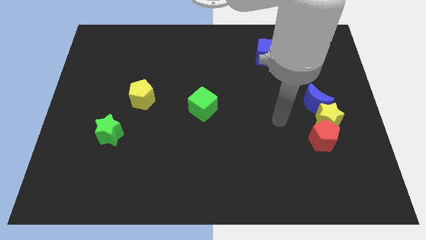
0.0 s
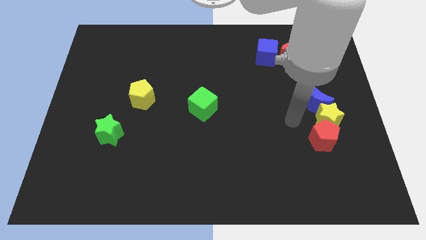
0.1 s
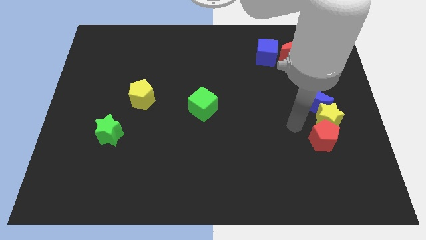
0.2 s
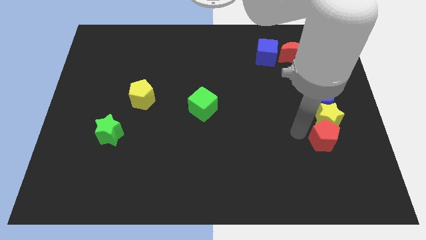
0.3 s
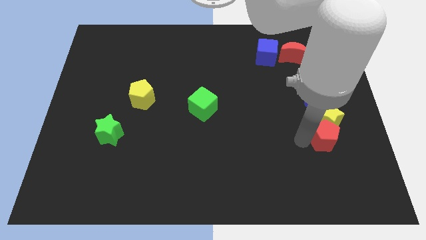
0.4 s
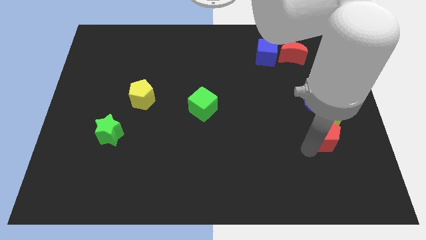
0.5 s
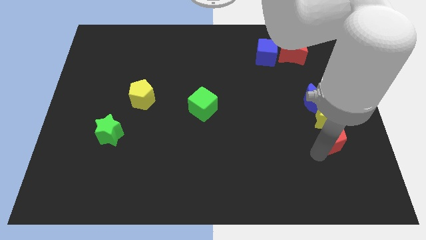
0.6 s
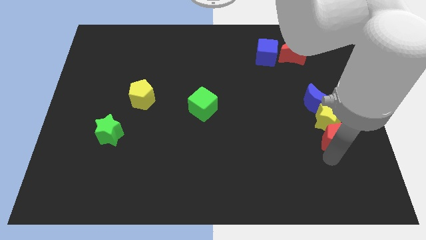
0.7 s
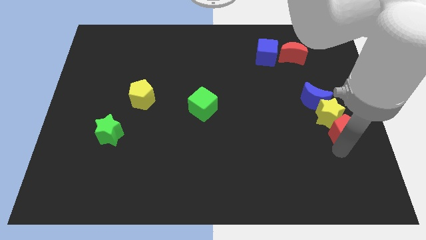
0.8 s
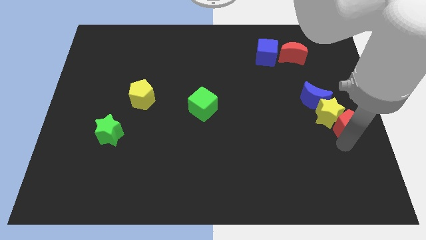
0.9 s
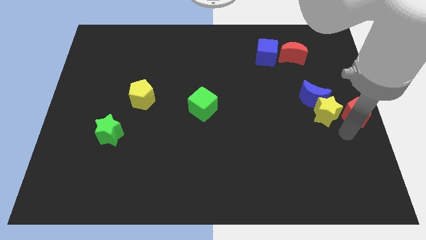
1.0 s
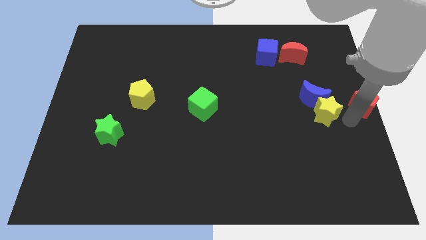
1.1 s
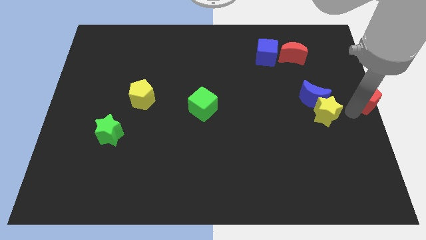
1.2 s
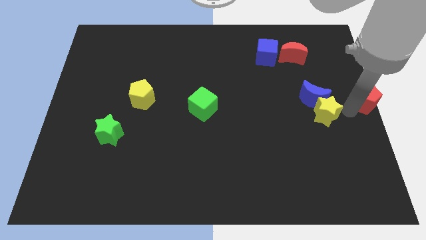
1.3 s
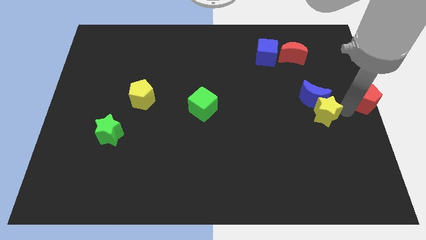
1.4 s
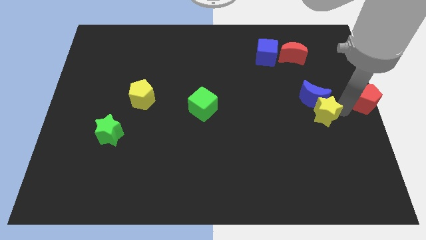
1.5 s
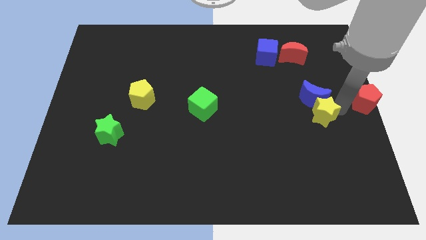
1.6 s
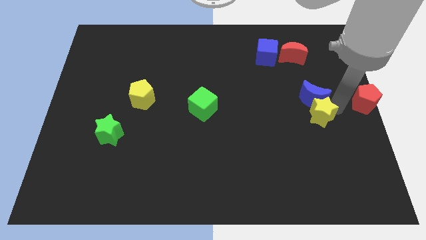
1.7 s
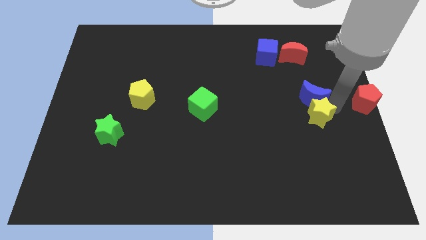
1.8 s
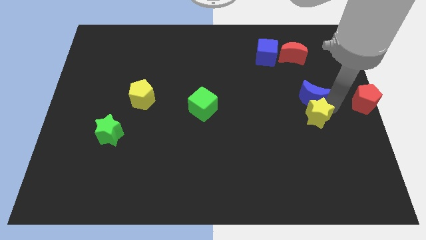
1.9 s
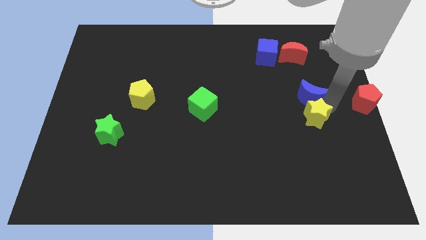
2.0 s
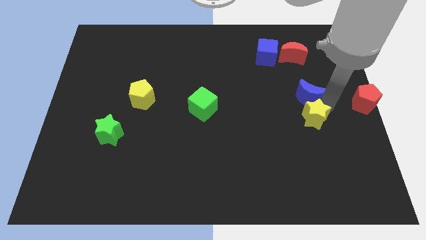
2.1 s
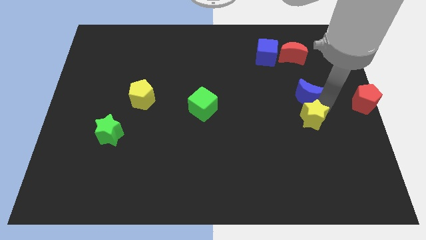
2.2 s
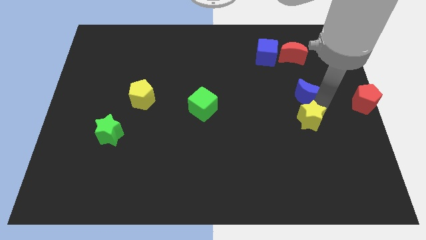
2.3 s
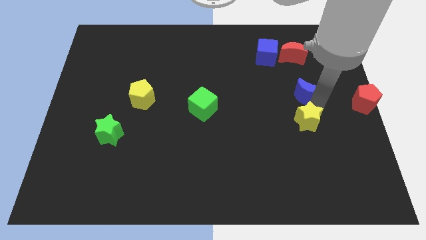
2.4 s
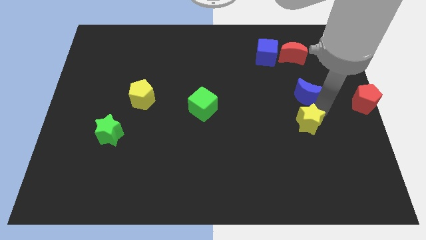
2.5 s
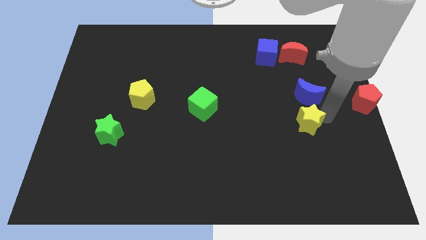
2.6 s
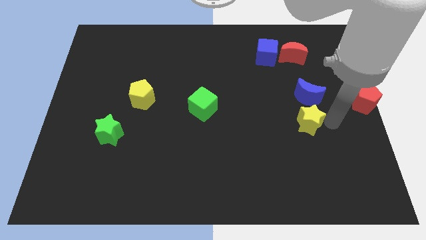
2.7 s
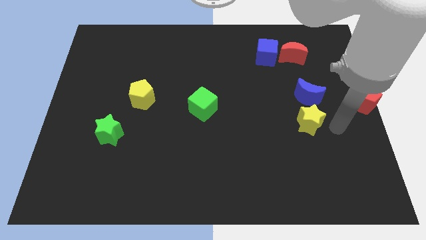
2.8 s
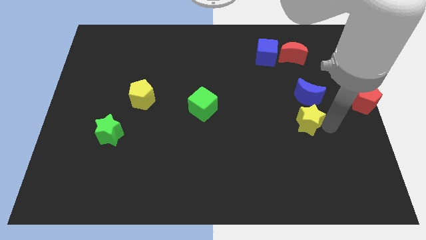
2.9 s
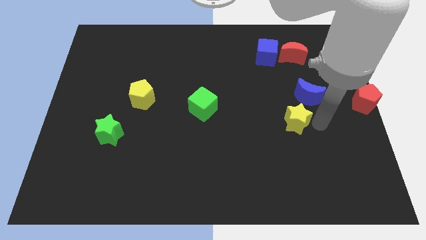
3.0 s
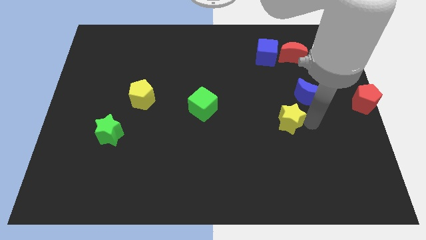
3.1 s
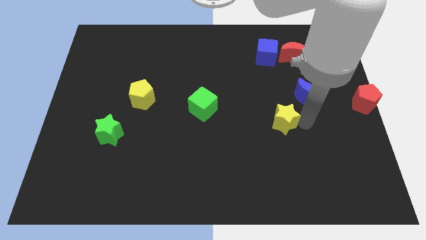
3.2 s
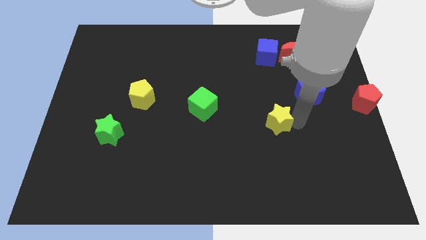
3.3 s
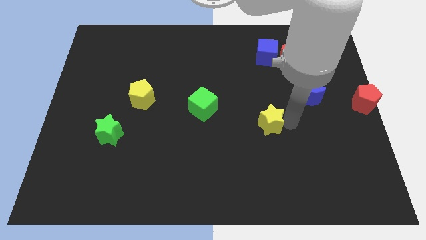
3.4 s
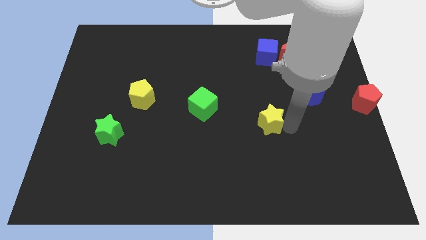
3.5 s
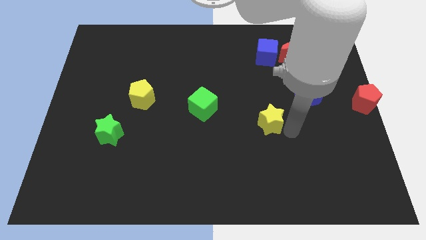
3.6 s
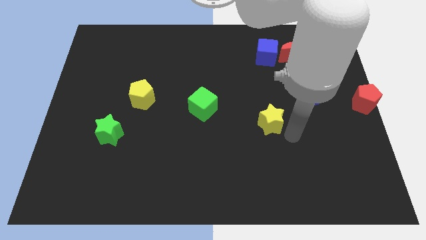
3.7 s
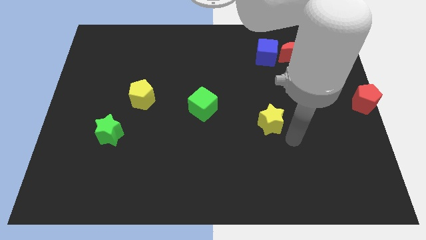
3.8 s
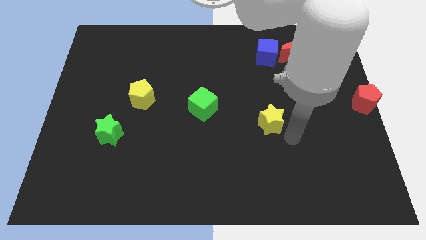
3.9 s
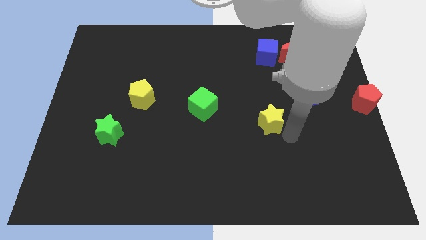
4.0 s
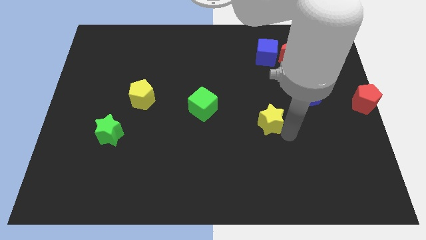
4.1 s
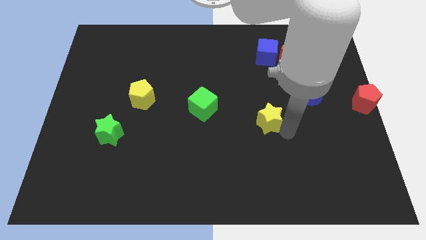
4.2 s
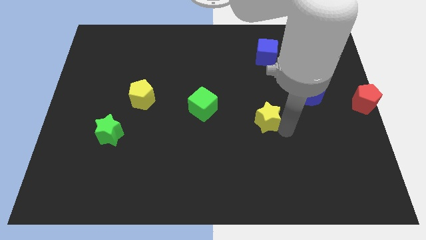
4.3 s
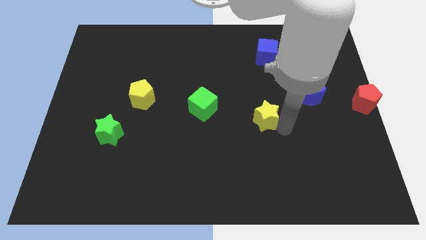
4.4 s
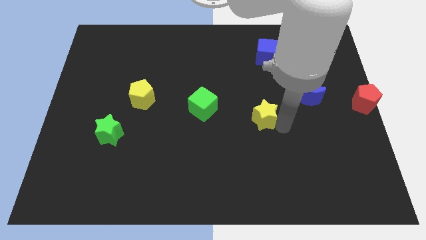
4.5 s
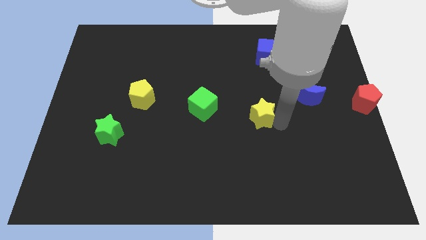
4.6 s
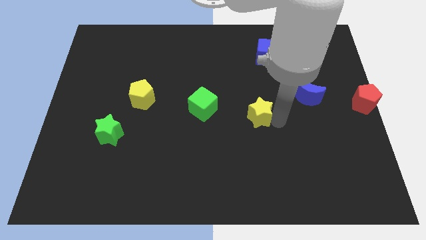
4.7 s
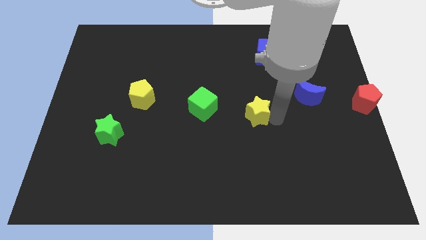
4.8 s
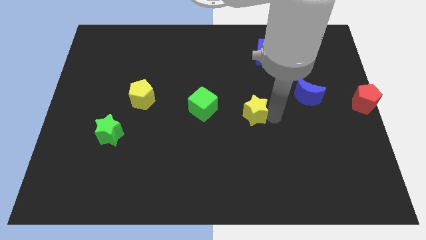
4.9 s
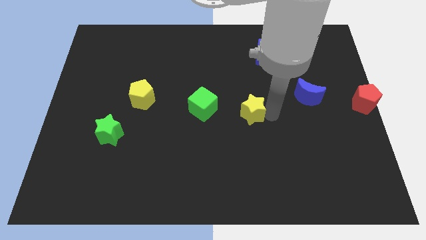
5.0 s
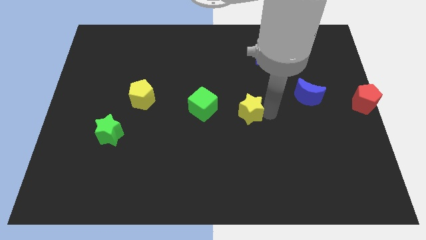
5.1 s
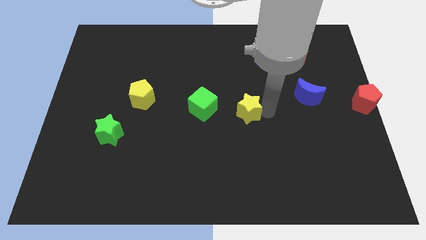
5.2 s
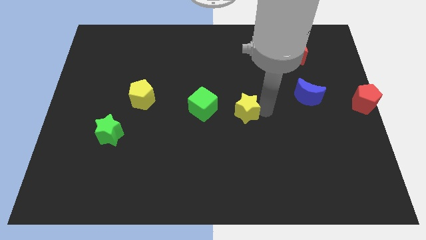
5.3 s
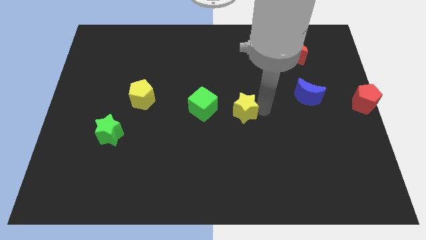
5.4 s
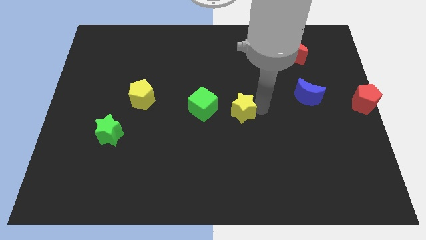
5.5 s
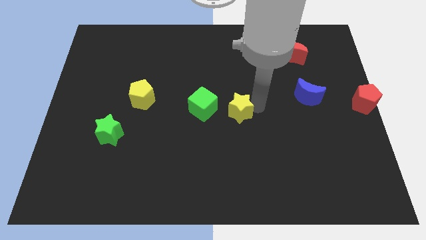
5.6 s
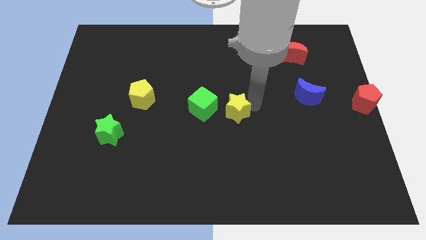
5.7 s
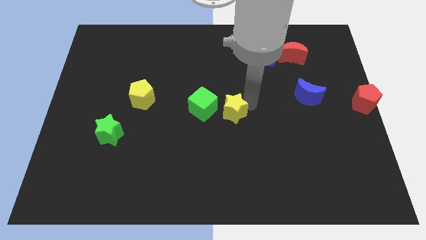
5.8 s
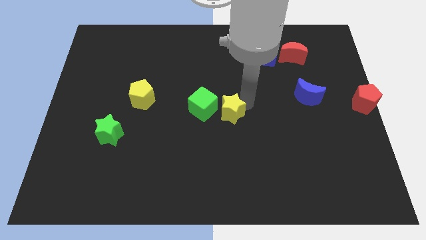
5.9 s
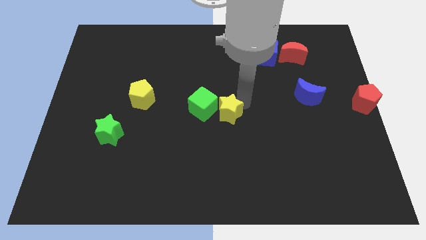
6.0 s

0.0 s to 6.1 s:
push the yellow star to the green cube
